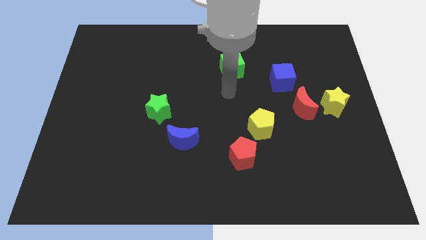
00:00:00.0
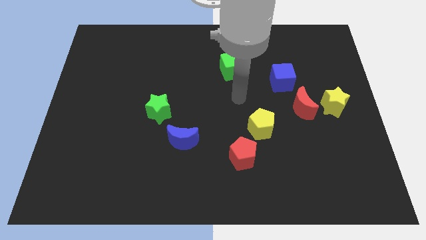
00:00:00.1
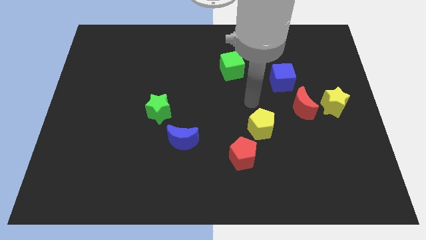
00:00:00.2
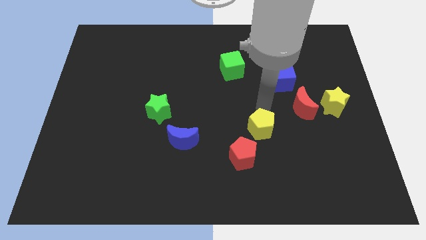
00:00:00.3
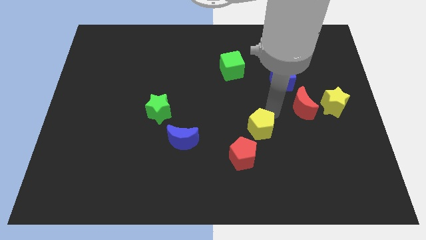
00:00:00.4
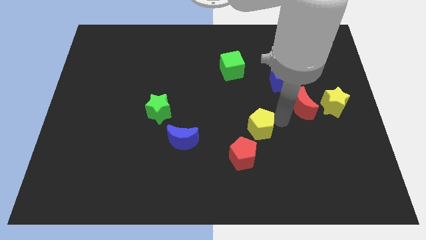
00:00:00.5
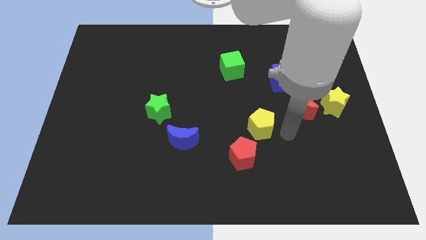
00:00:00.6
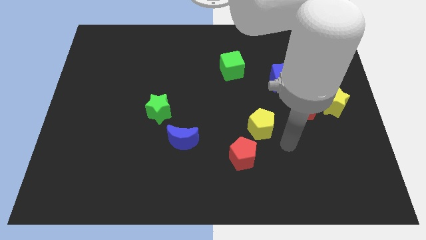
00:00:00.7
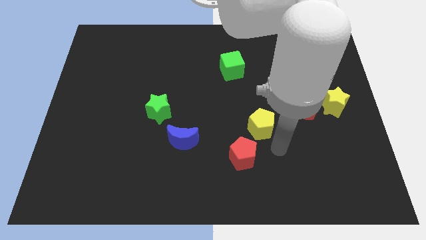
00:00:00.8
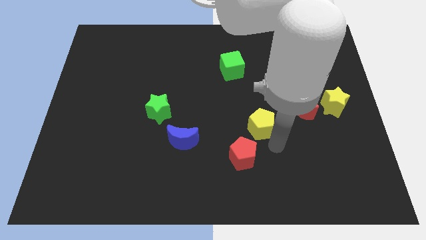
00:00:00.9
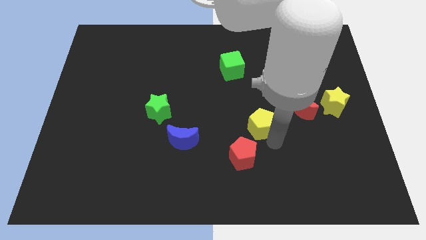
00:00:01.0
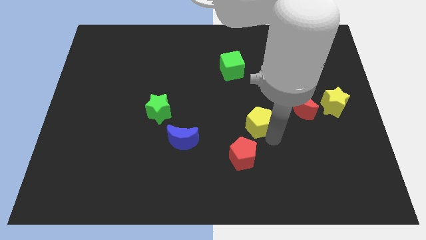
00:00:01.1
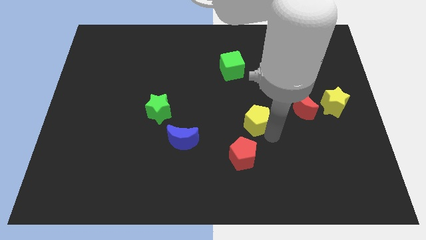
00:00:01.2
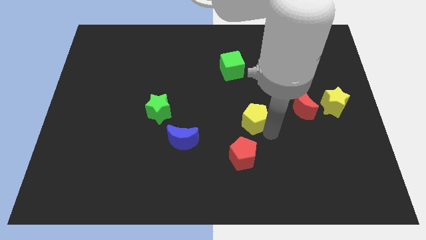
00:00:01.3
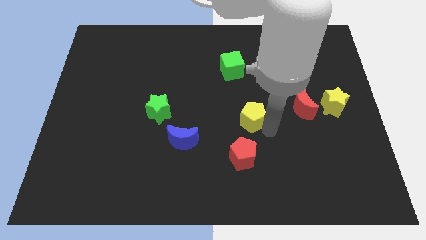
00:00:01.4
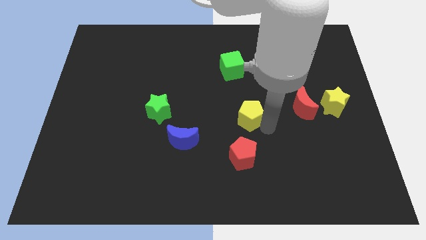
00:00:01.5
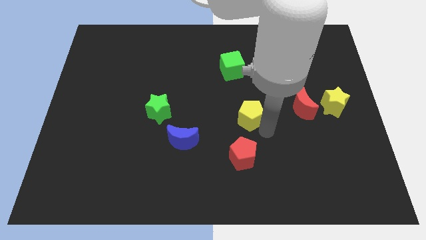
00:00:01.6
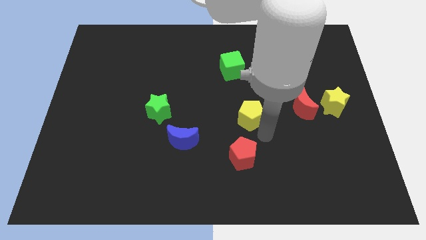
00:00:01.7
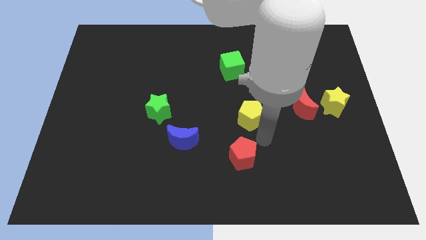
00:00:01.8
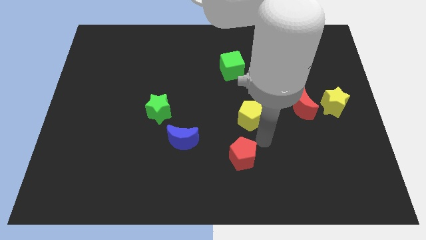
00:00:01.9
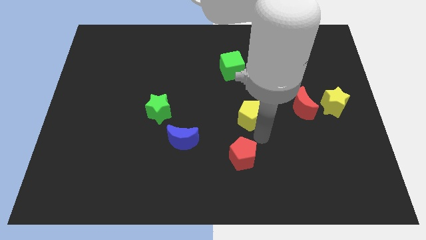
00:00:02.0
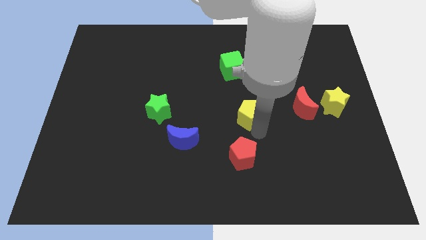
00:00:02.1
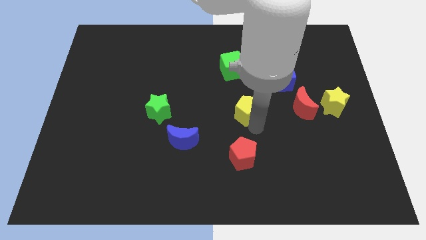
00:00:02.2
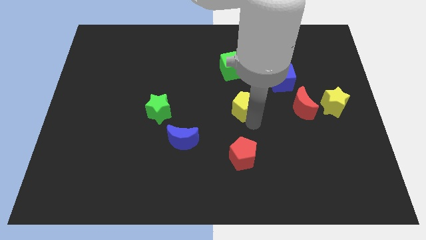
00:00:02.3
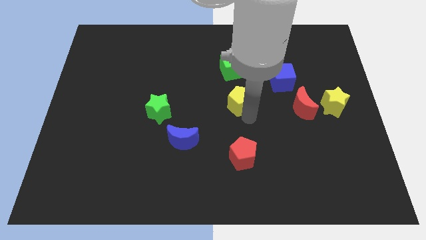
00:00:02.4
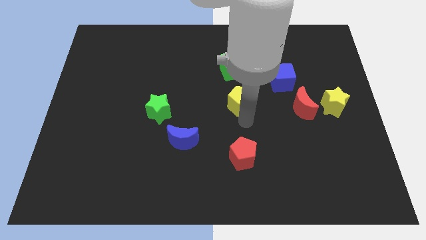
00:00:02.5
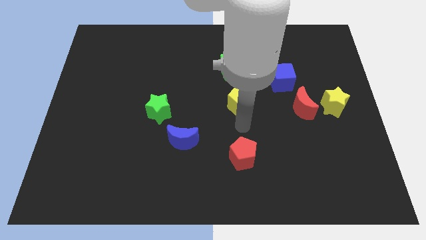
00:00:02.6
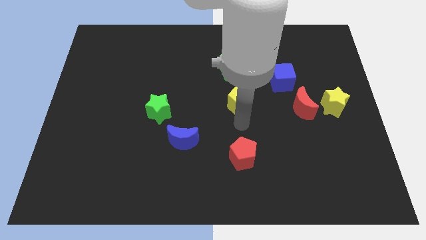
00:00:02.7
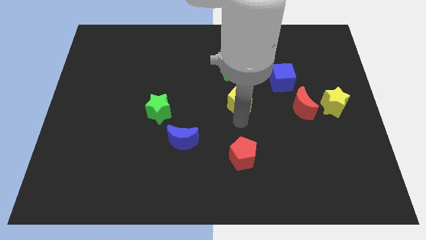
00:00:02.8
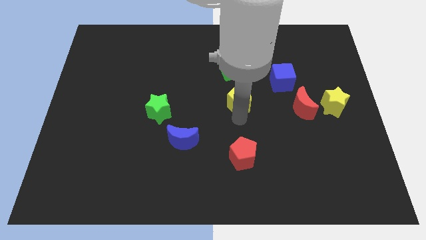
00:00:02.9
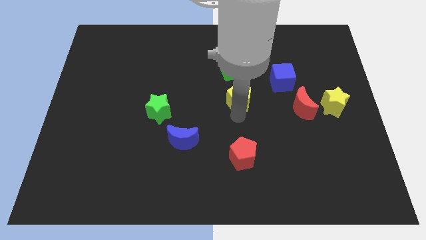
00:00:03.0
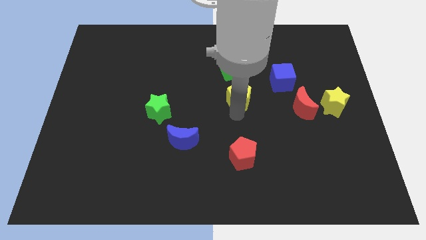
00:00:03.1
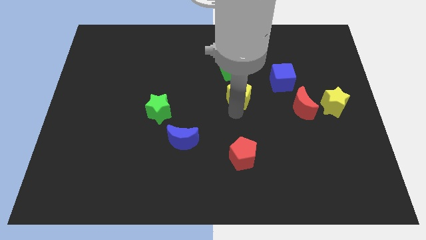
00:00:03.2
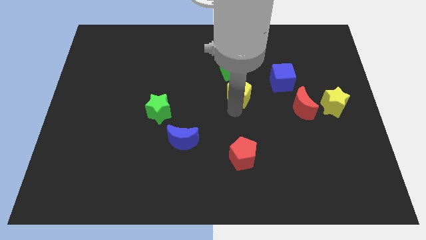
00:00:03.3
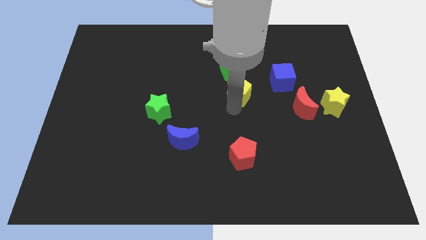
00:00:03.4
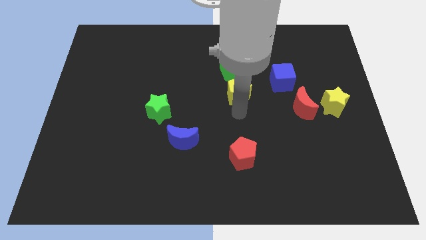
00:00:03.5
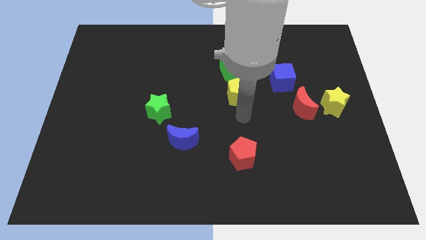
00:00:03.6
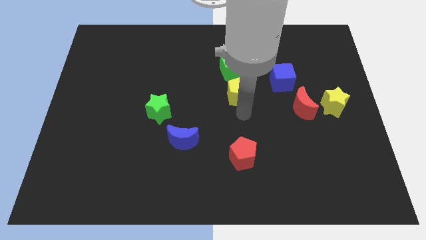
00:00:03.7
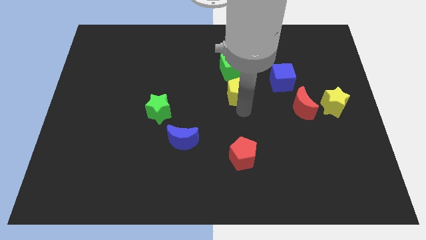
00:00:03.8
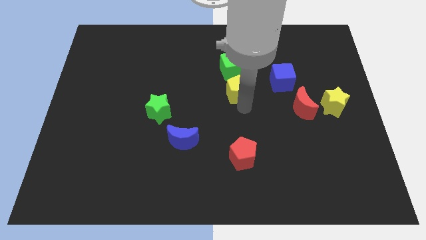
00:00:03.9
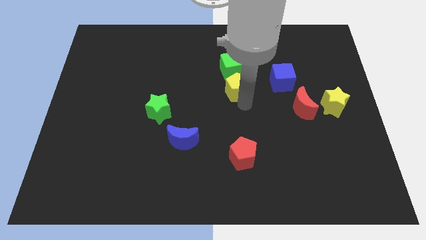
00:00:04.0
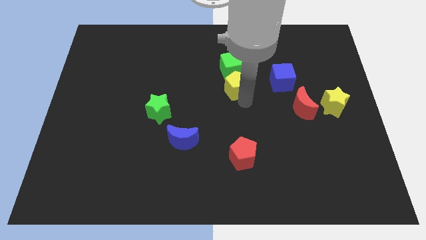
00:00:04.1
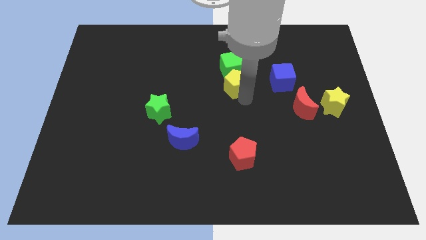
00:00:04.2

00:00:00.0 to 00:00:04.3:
slide the yellow pentagon close to the green cube

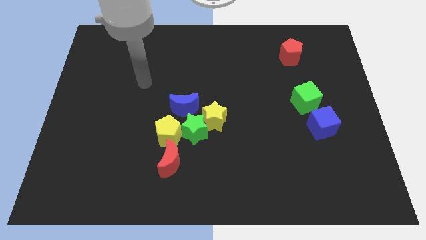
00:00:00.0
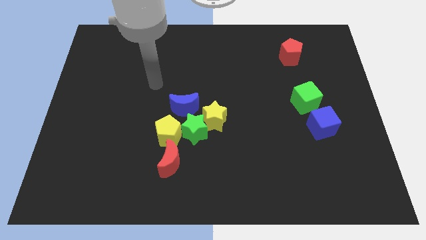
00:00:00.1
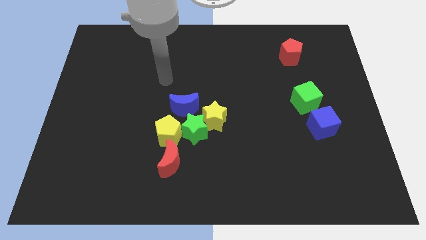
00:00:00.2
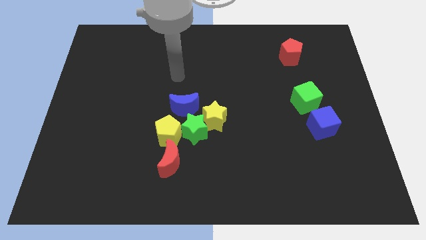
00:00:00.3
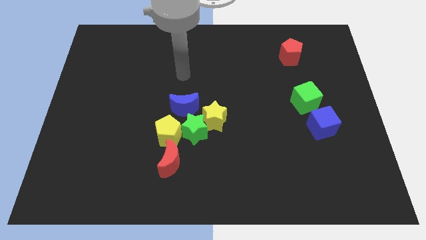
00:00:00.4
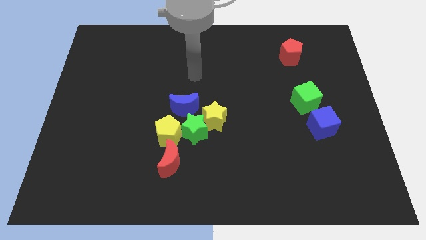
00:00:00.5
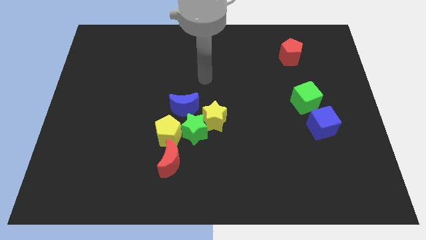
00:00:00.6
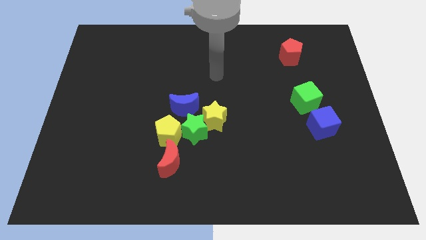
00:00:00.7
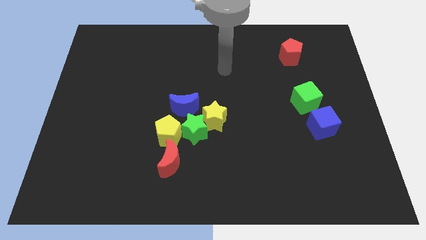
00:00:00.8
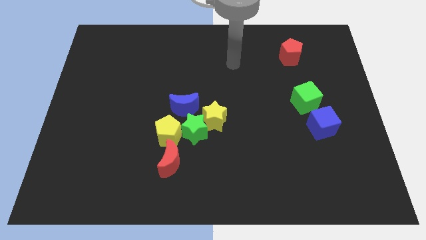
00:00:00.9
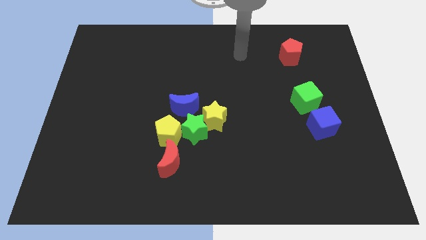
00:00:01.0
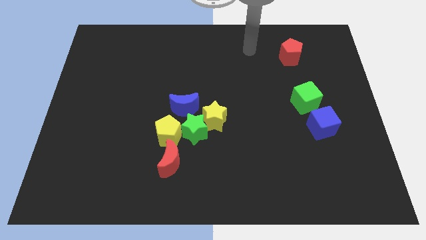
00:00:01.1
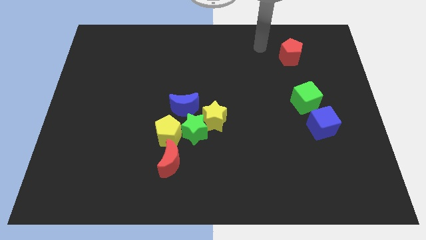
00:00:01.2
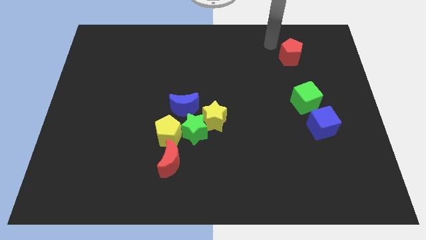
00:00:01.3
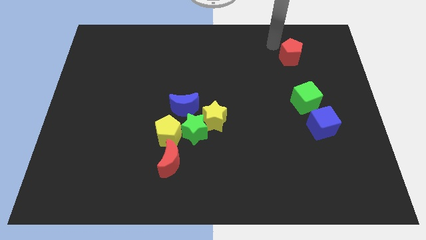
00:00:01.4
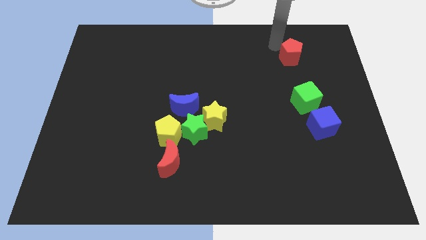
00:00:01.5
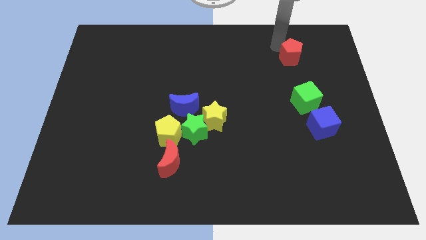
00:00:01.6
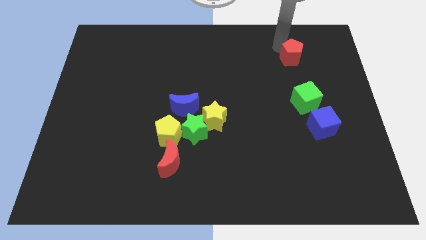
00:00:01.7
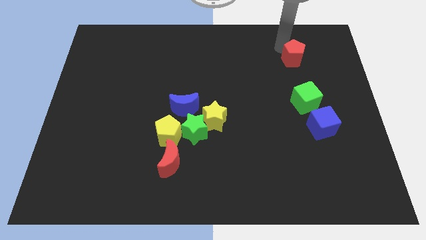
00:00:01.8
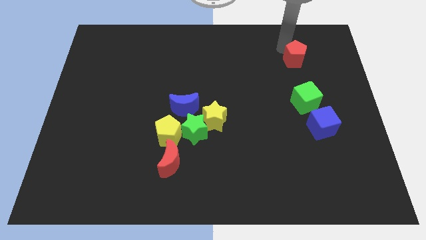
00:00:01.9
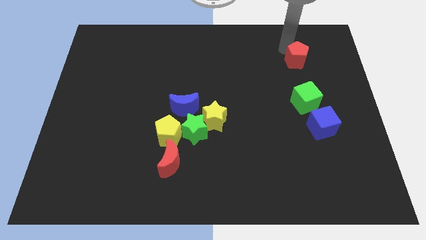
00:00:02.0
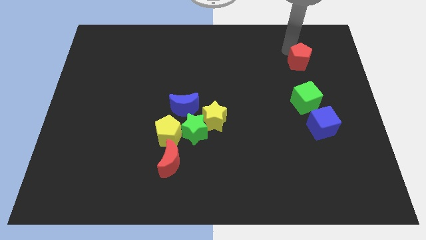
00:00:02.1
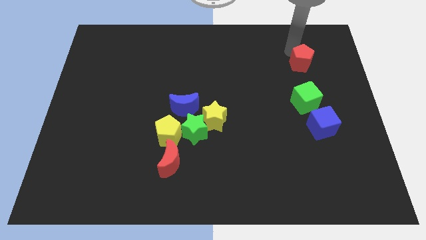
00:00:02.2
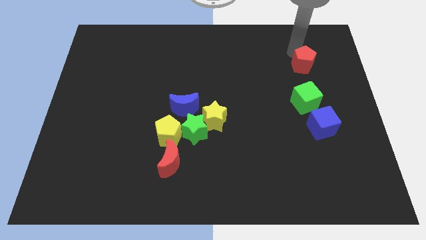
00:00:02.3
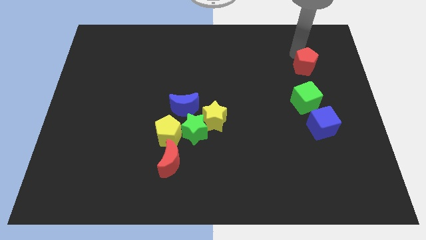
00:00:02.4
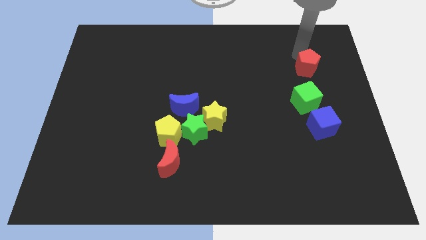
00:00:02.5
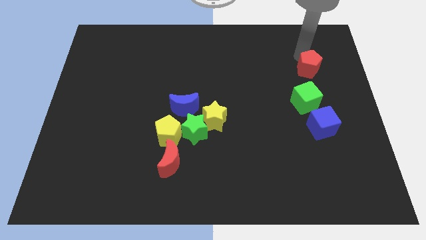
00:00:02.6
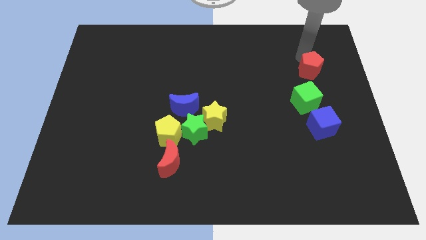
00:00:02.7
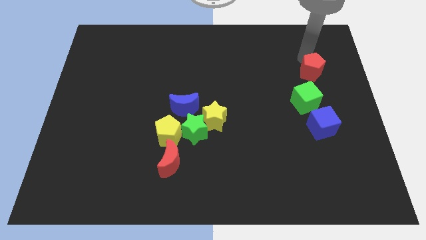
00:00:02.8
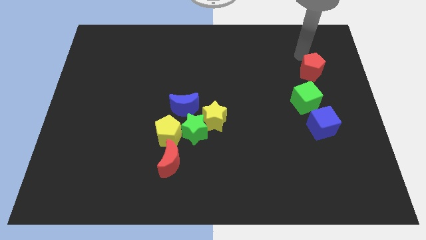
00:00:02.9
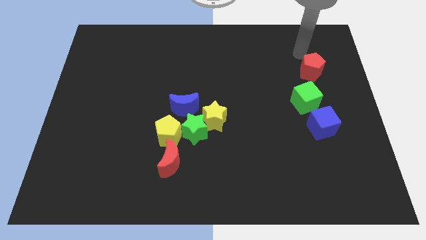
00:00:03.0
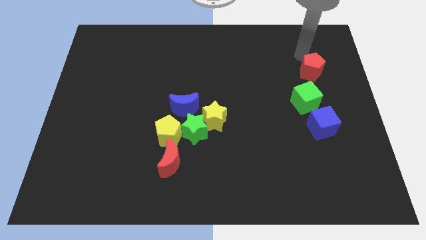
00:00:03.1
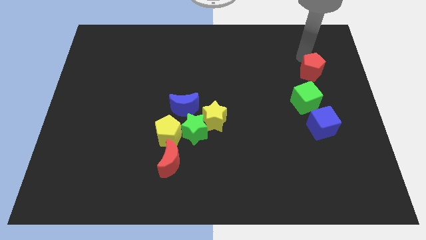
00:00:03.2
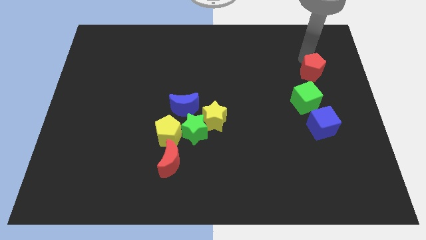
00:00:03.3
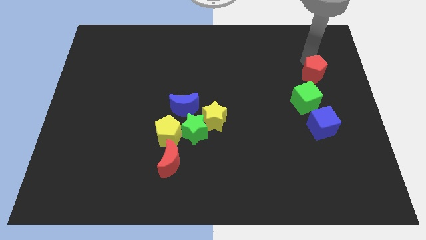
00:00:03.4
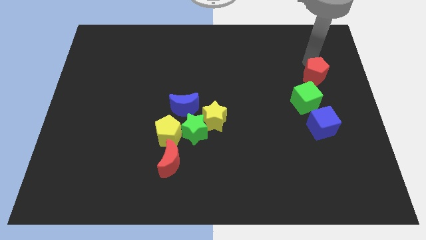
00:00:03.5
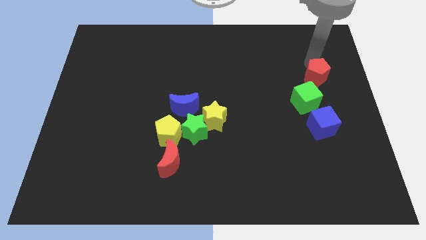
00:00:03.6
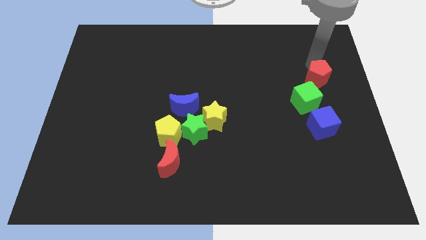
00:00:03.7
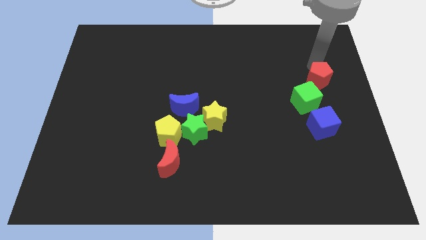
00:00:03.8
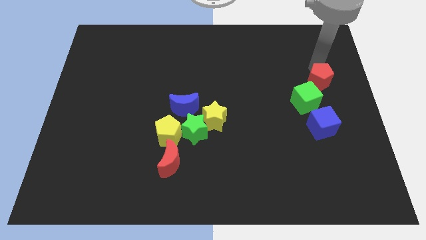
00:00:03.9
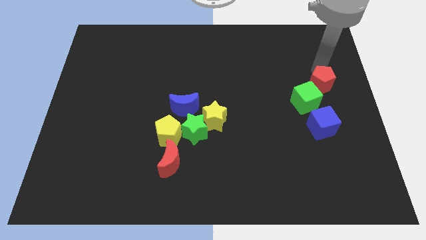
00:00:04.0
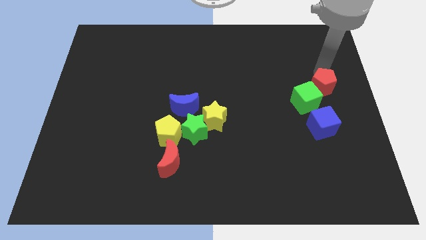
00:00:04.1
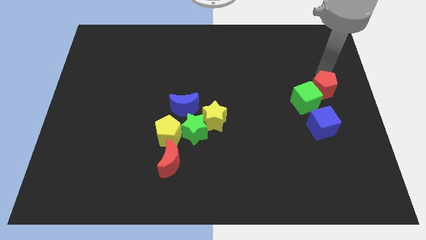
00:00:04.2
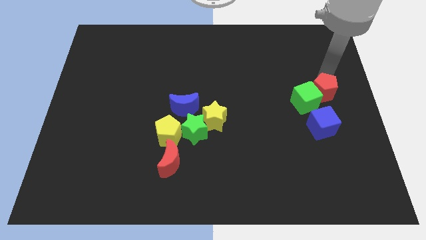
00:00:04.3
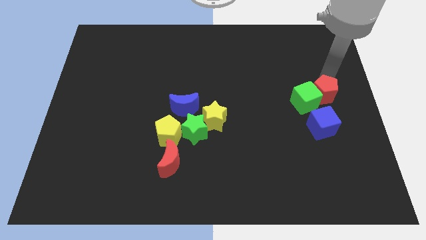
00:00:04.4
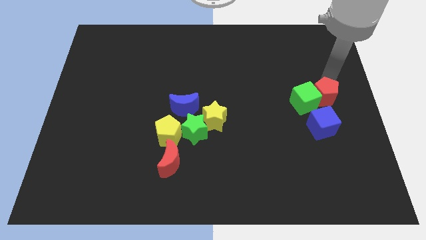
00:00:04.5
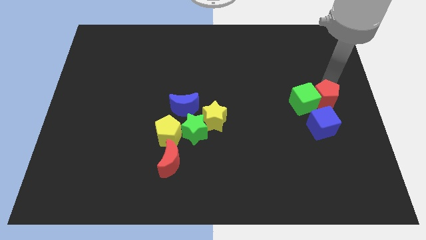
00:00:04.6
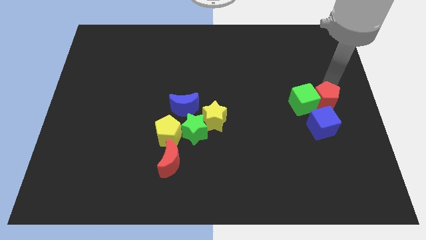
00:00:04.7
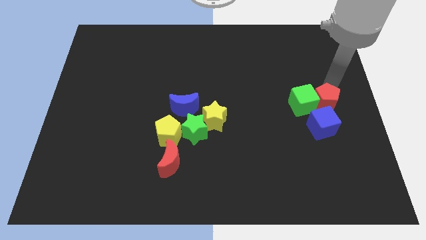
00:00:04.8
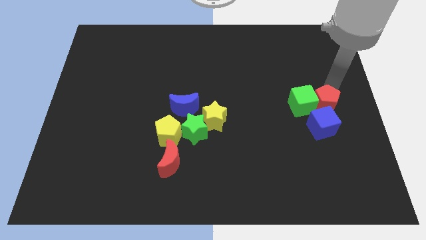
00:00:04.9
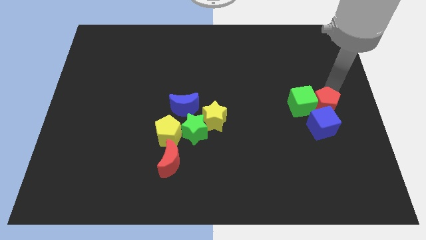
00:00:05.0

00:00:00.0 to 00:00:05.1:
slide the red pentagon towards the blue cube
